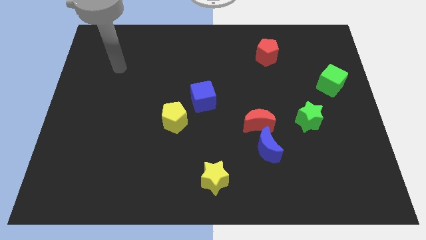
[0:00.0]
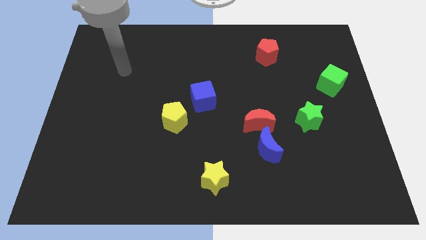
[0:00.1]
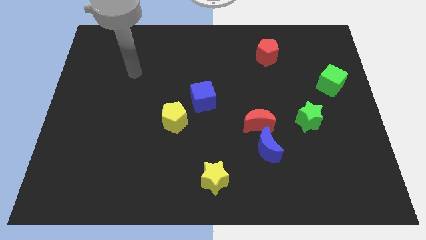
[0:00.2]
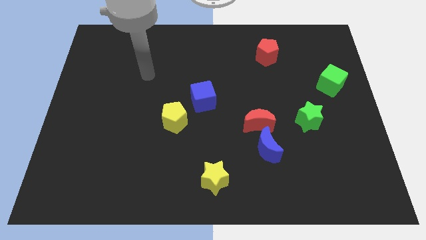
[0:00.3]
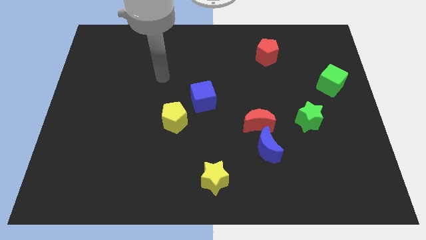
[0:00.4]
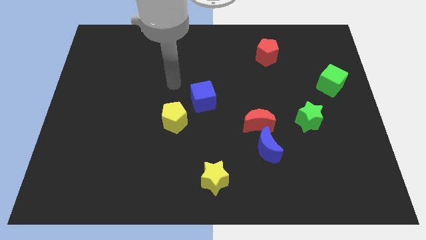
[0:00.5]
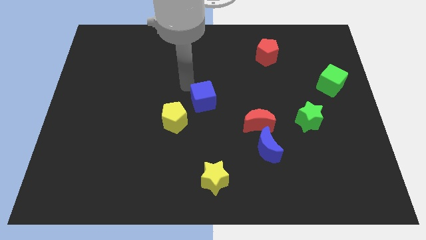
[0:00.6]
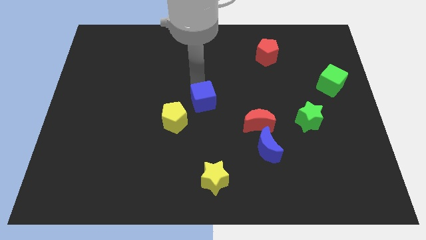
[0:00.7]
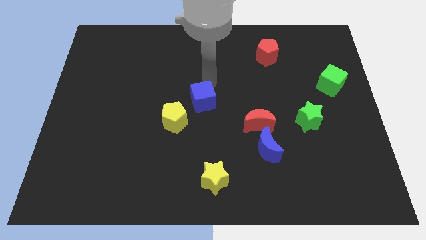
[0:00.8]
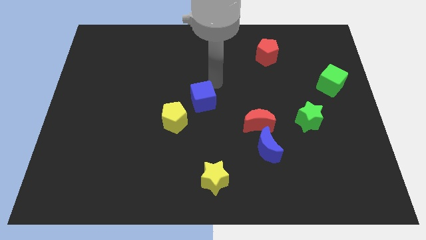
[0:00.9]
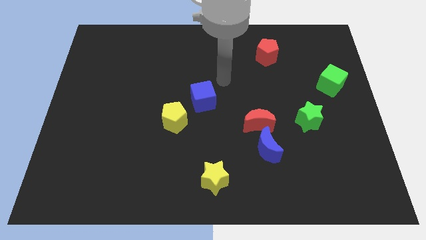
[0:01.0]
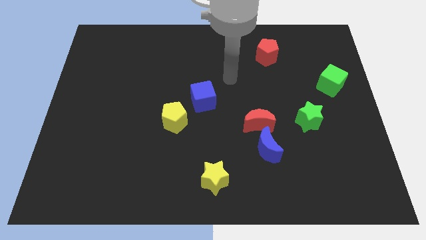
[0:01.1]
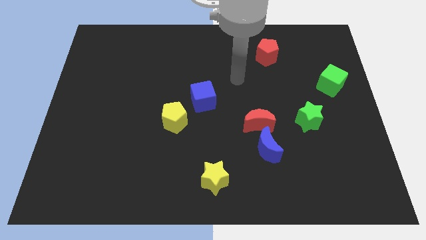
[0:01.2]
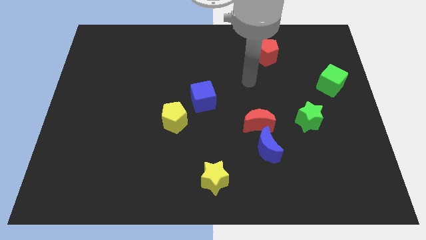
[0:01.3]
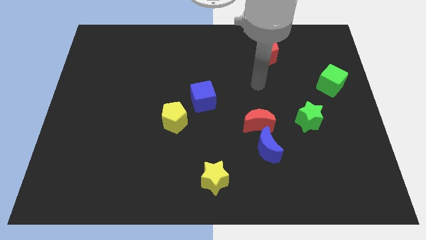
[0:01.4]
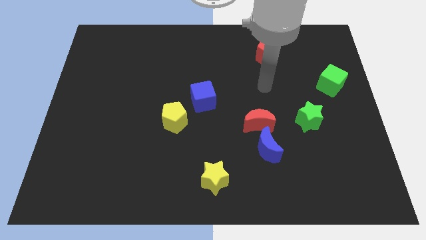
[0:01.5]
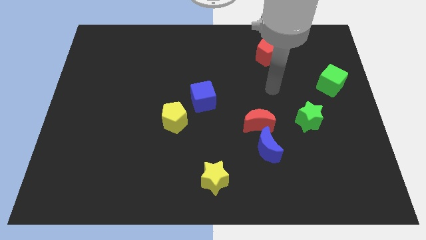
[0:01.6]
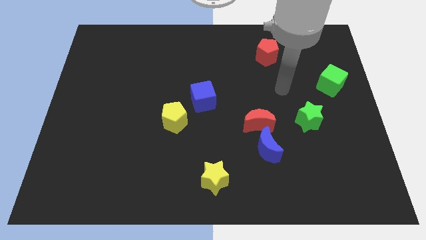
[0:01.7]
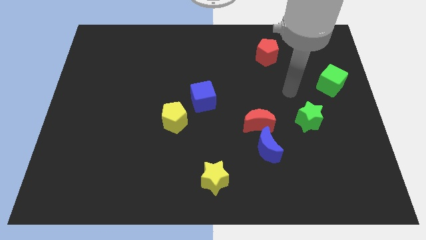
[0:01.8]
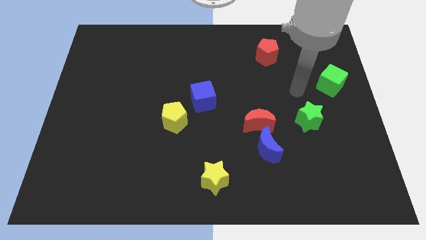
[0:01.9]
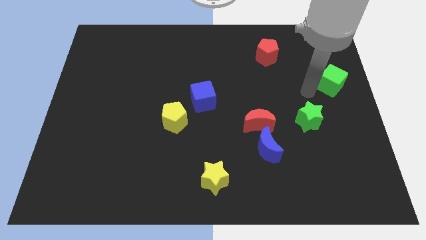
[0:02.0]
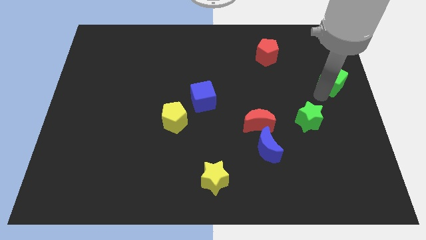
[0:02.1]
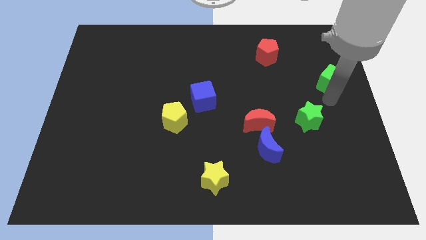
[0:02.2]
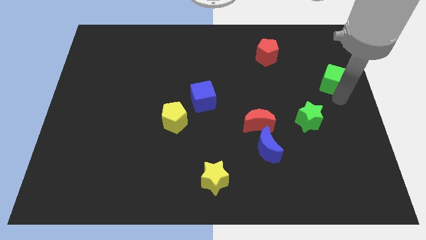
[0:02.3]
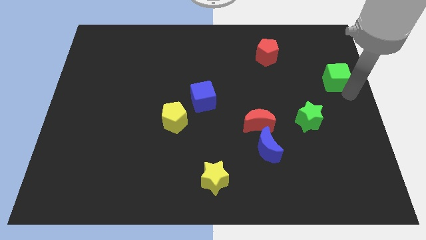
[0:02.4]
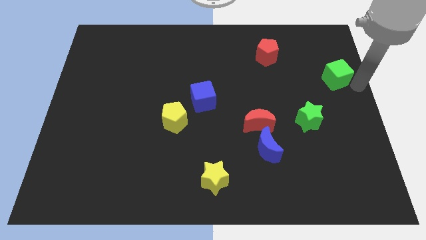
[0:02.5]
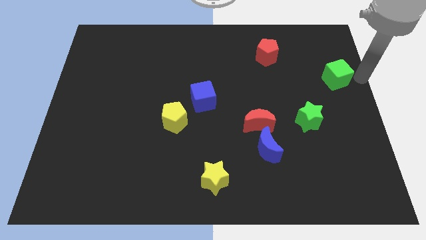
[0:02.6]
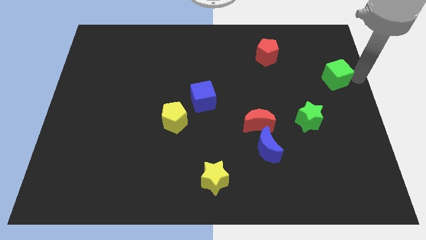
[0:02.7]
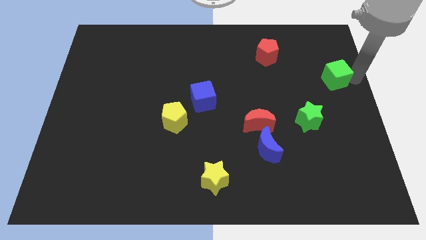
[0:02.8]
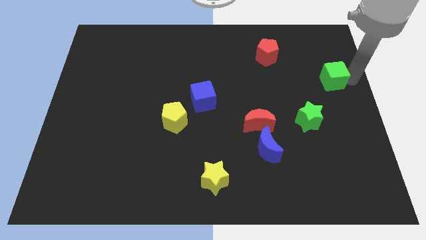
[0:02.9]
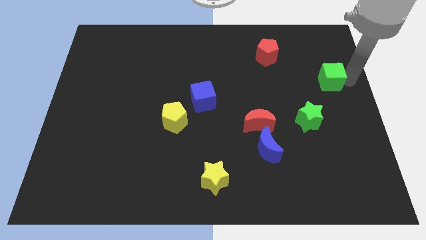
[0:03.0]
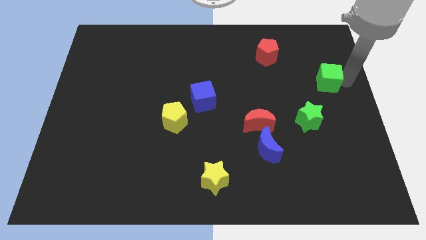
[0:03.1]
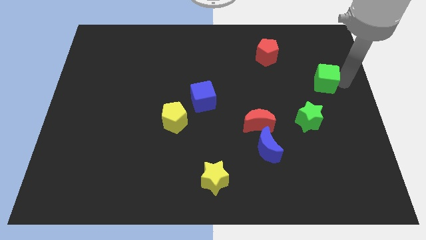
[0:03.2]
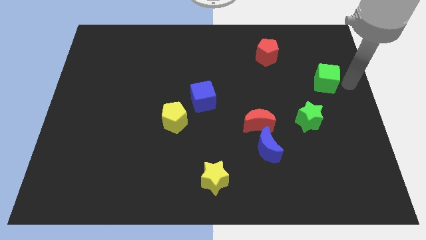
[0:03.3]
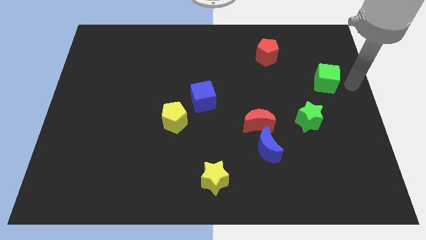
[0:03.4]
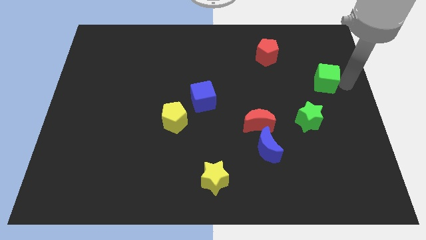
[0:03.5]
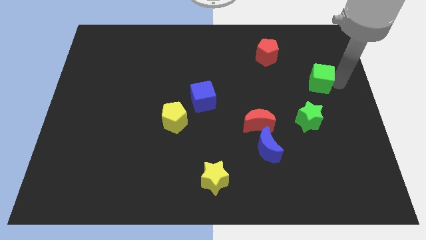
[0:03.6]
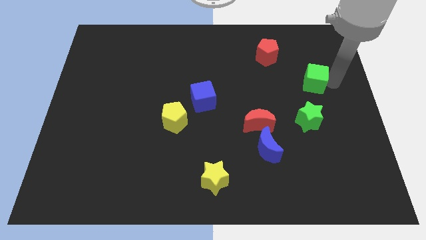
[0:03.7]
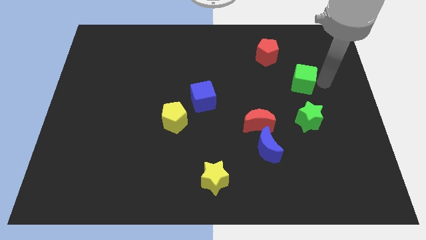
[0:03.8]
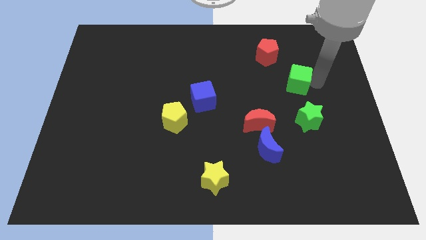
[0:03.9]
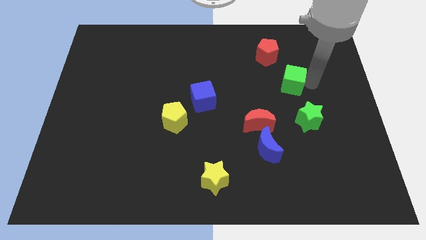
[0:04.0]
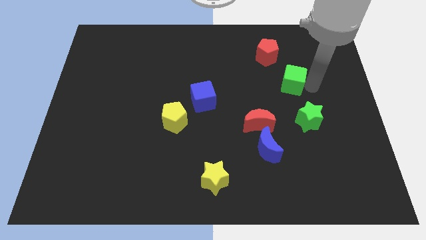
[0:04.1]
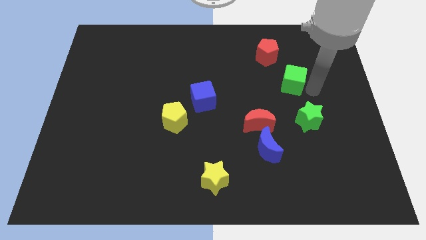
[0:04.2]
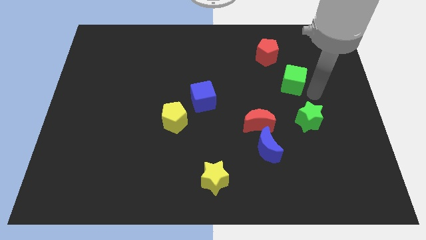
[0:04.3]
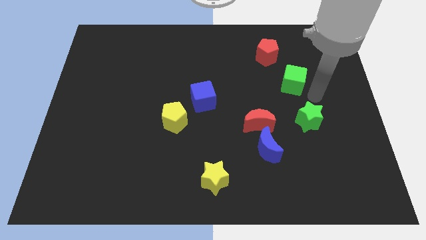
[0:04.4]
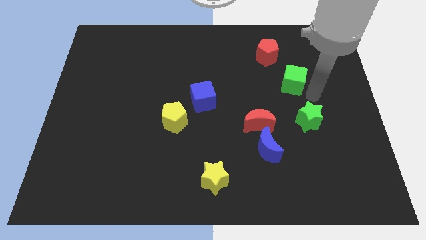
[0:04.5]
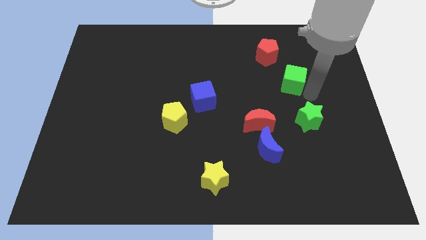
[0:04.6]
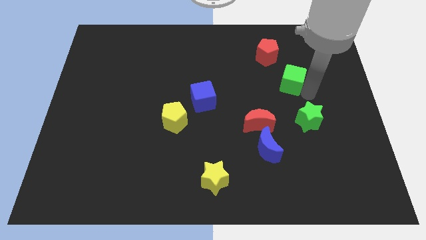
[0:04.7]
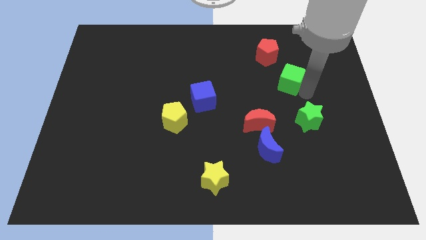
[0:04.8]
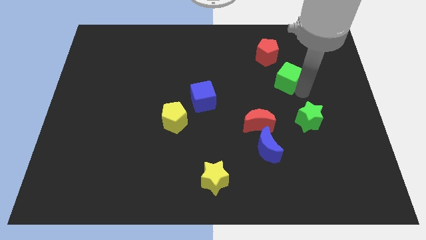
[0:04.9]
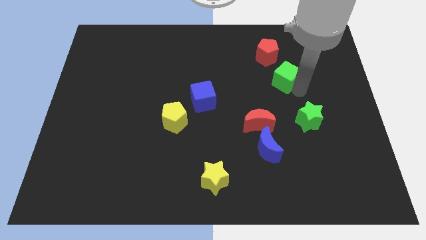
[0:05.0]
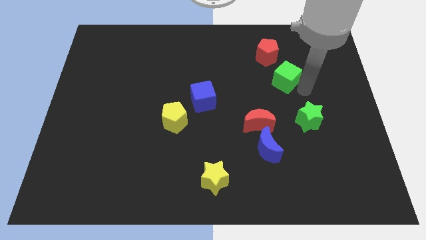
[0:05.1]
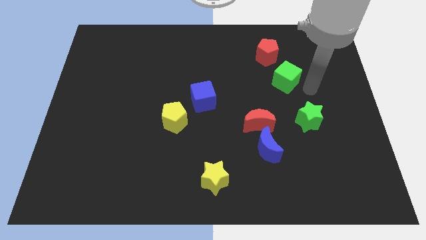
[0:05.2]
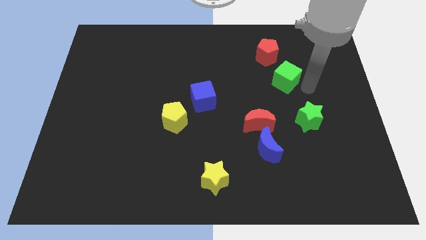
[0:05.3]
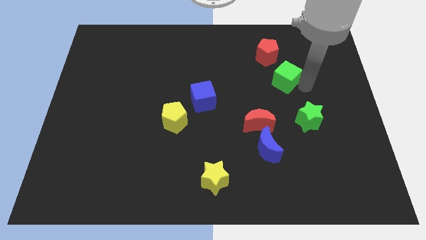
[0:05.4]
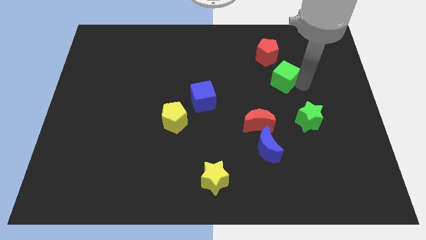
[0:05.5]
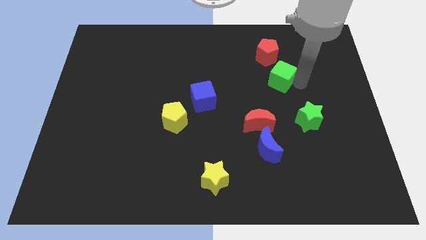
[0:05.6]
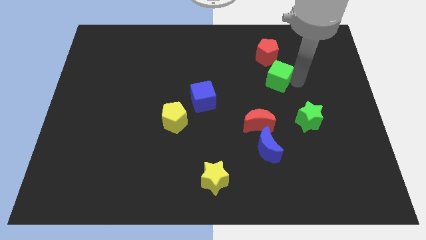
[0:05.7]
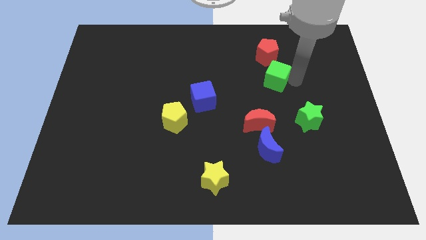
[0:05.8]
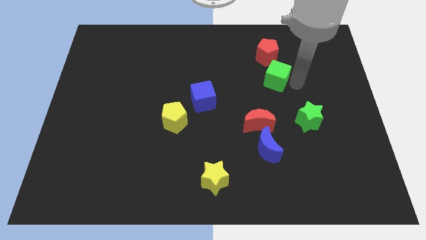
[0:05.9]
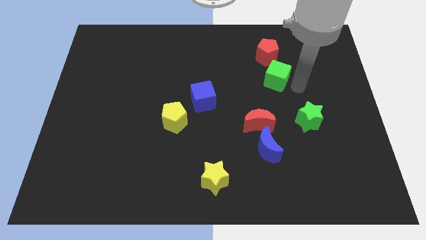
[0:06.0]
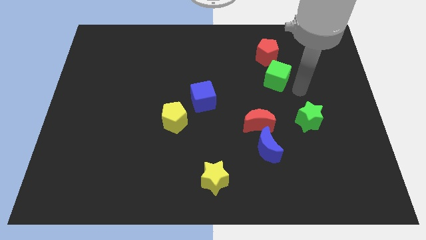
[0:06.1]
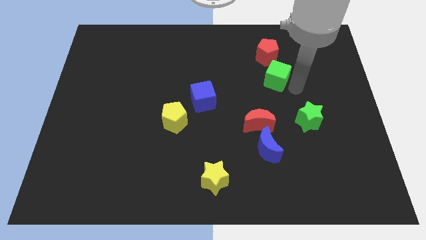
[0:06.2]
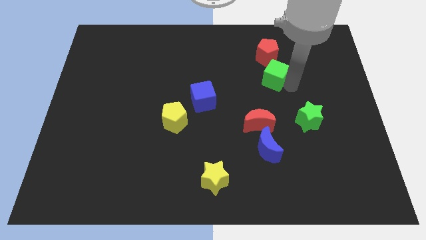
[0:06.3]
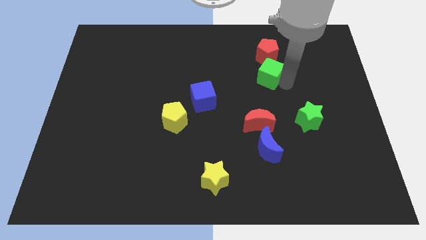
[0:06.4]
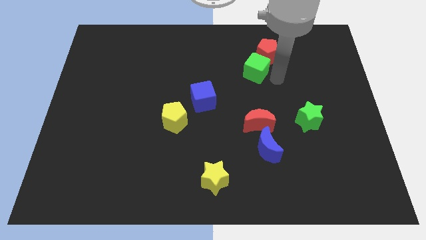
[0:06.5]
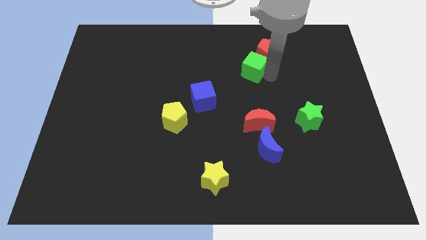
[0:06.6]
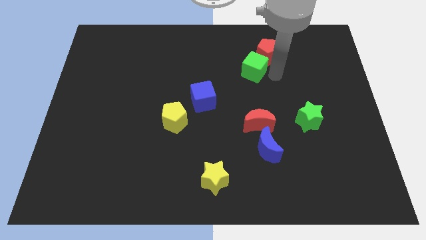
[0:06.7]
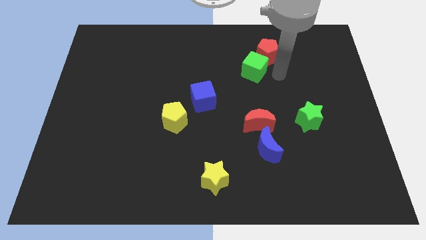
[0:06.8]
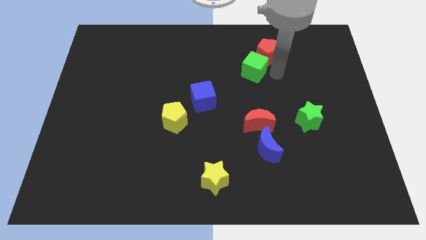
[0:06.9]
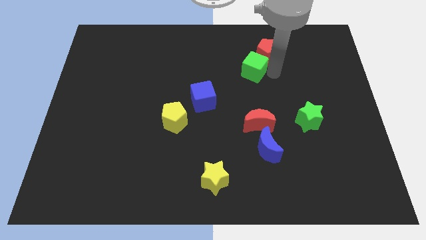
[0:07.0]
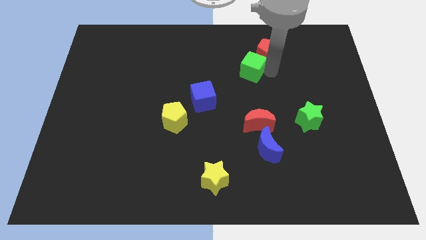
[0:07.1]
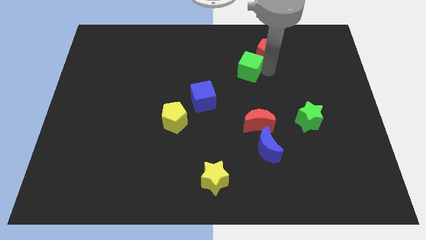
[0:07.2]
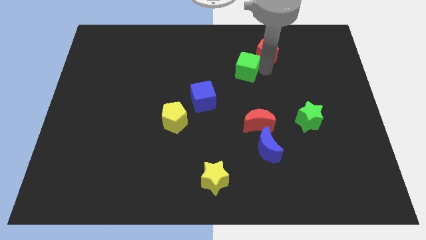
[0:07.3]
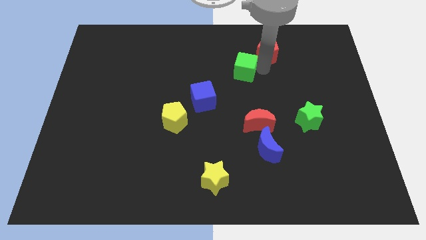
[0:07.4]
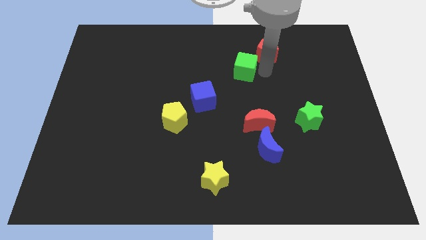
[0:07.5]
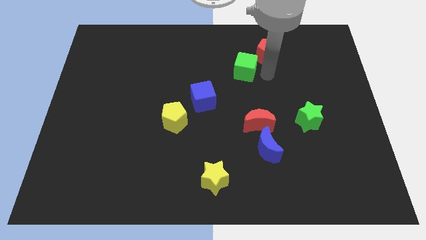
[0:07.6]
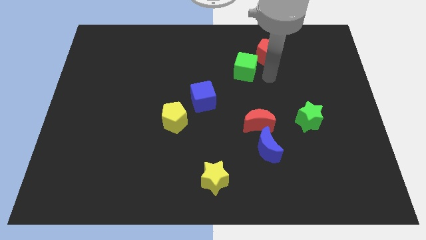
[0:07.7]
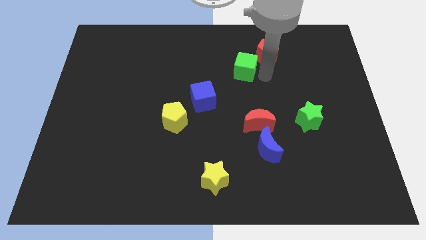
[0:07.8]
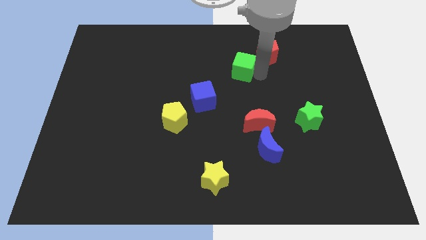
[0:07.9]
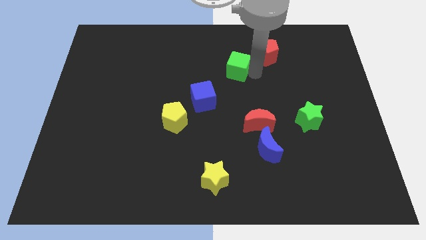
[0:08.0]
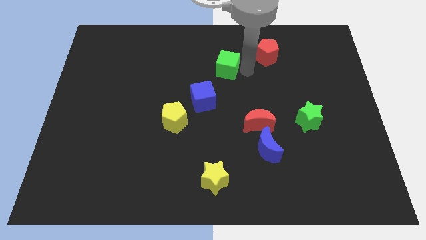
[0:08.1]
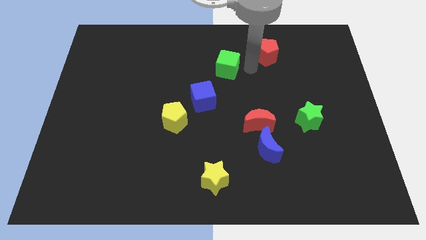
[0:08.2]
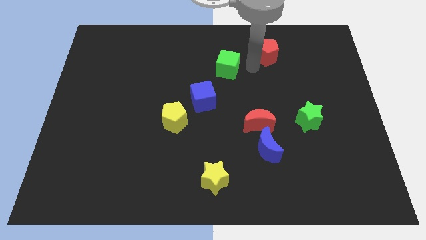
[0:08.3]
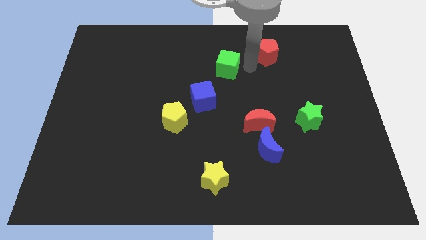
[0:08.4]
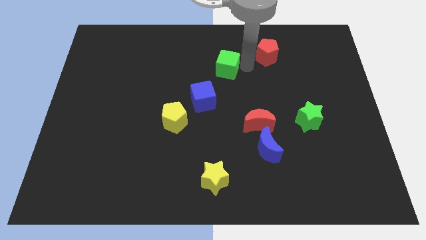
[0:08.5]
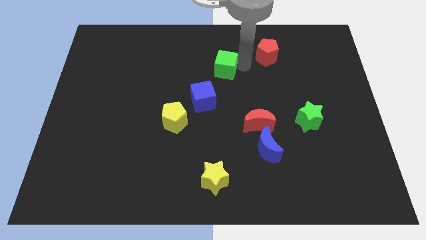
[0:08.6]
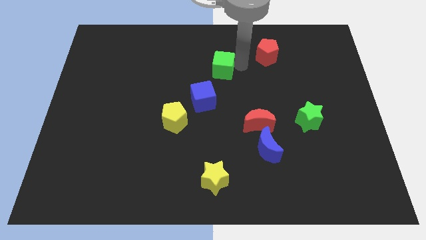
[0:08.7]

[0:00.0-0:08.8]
push the green cube to the top of the blue cube
